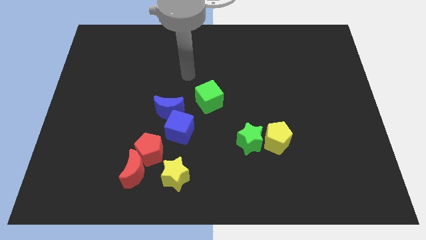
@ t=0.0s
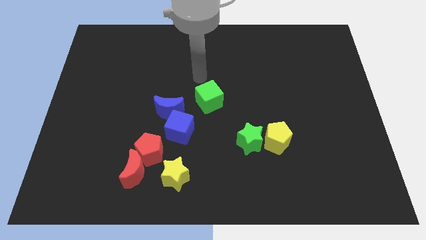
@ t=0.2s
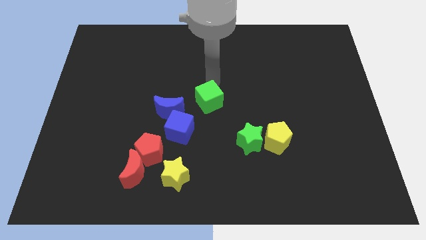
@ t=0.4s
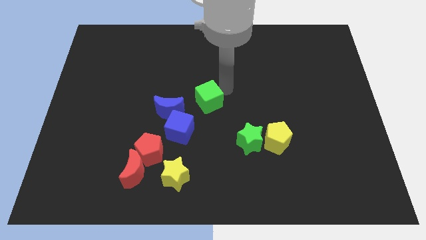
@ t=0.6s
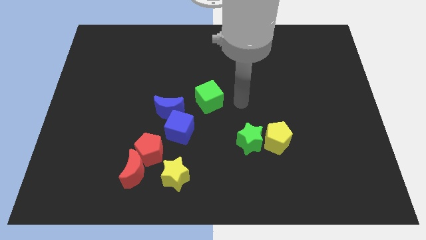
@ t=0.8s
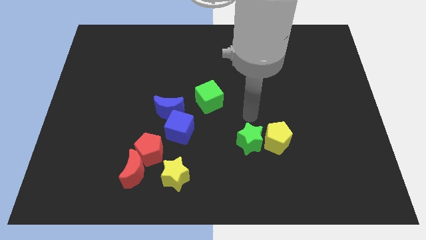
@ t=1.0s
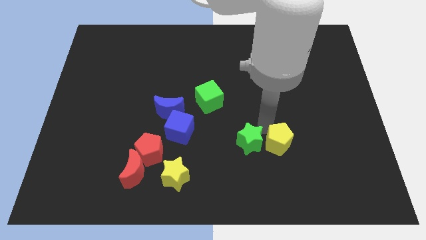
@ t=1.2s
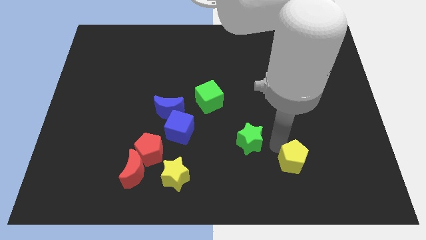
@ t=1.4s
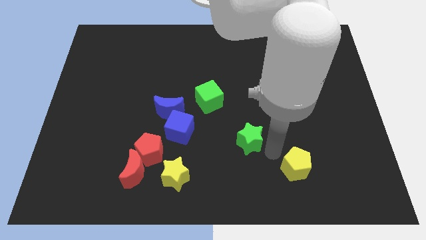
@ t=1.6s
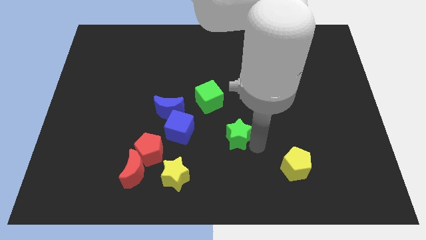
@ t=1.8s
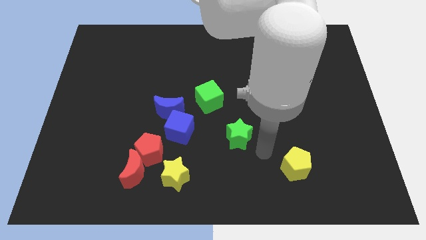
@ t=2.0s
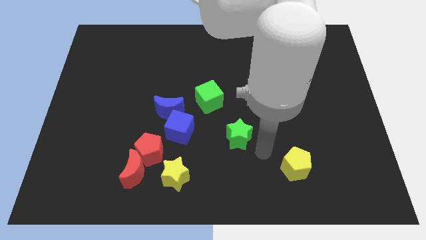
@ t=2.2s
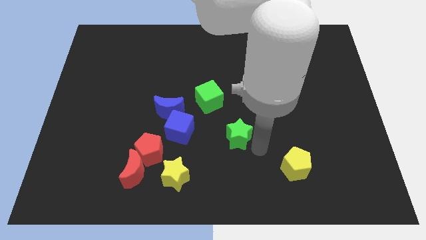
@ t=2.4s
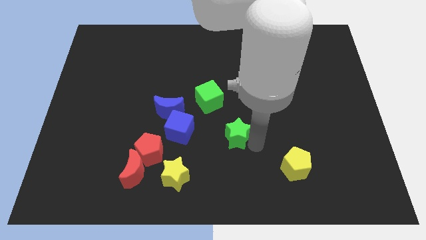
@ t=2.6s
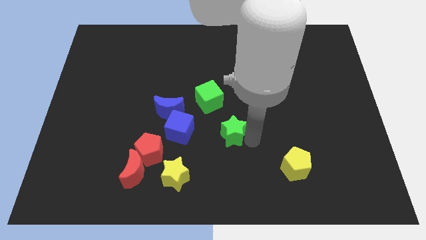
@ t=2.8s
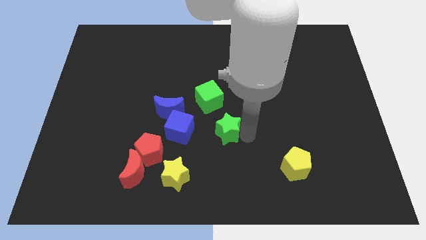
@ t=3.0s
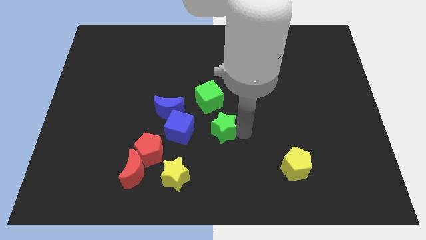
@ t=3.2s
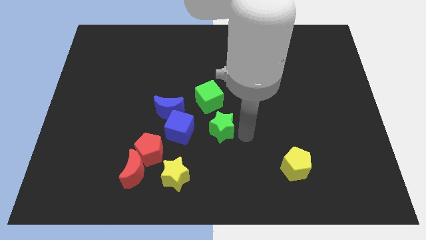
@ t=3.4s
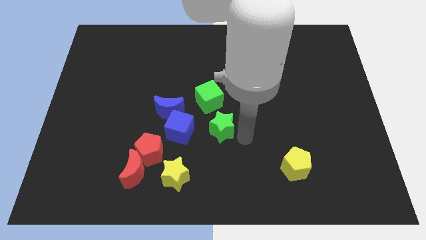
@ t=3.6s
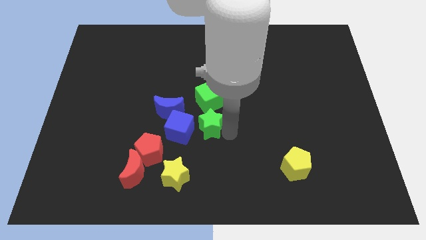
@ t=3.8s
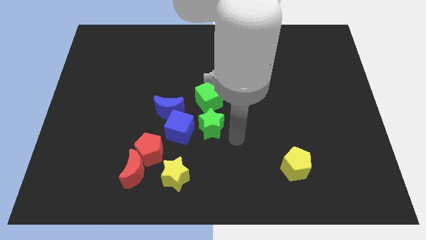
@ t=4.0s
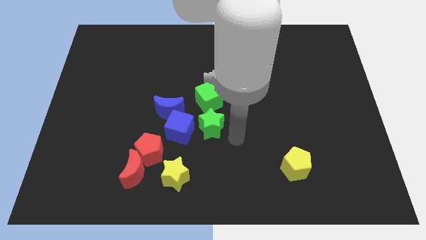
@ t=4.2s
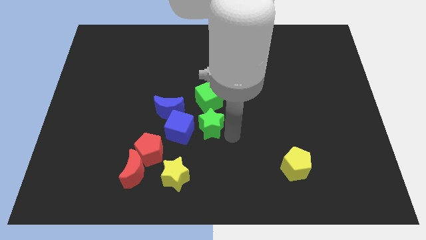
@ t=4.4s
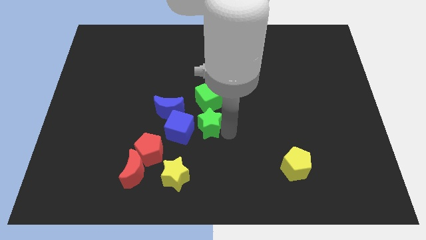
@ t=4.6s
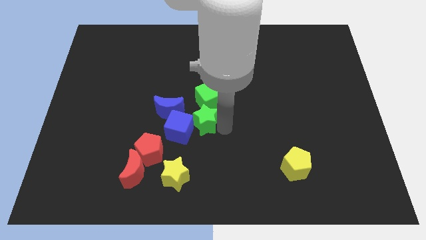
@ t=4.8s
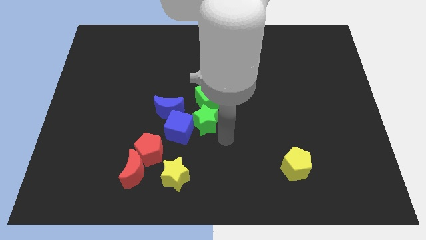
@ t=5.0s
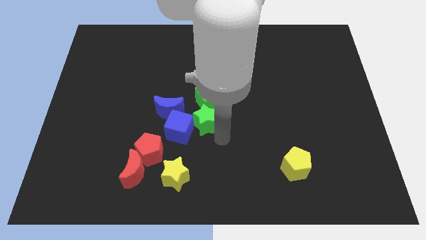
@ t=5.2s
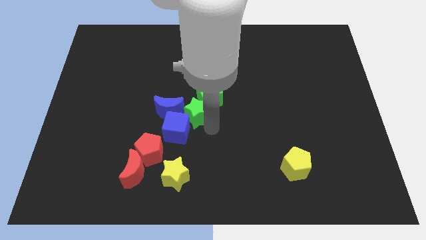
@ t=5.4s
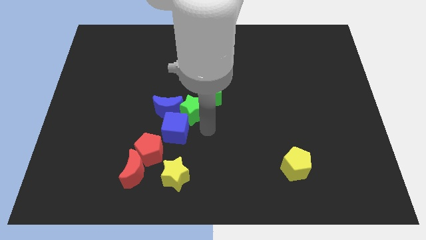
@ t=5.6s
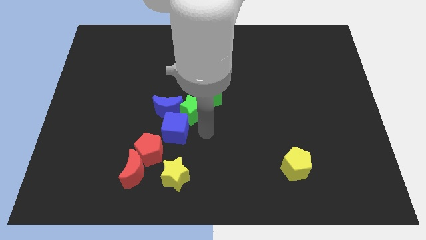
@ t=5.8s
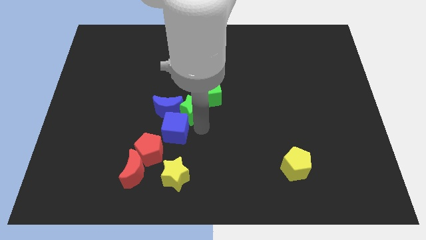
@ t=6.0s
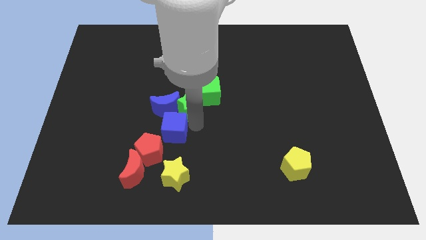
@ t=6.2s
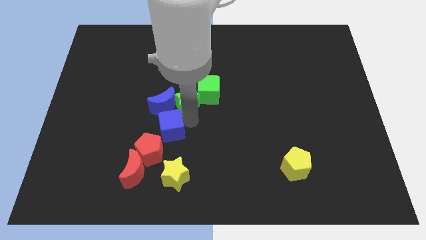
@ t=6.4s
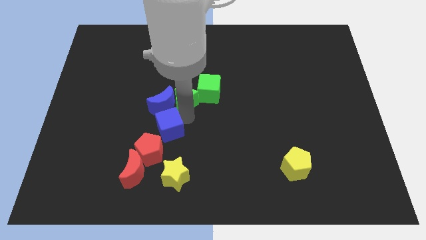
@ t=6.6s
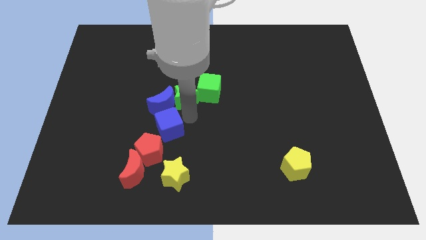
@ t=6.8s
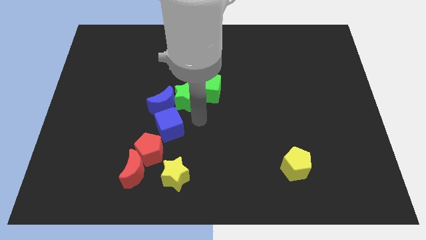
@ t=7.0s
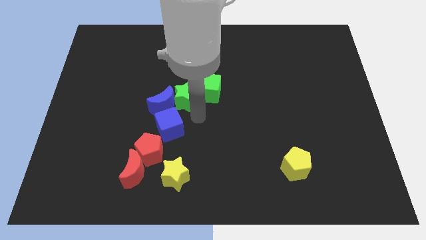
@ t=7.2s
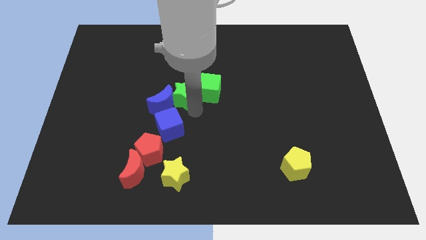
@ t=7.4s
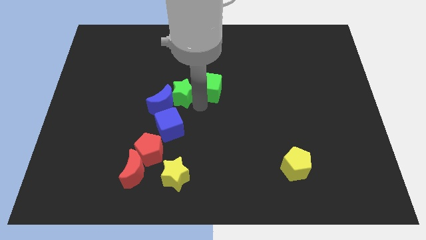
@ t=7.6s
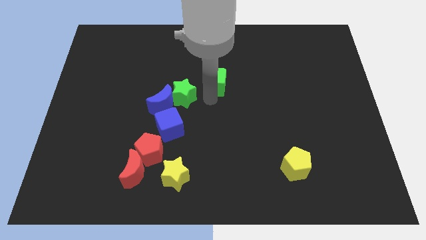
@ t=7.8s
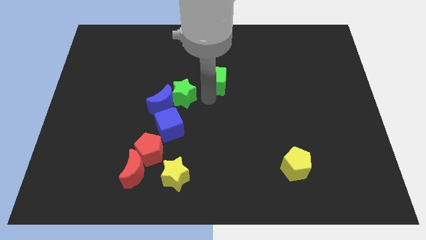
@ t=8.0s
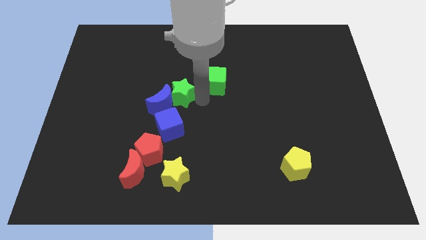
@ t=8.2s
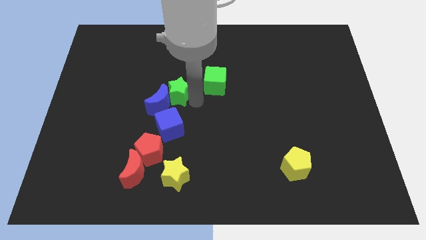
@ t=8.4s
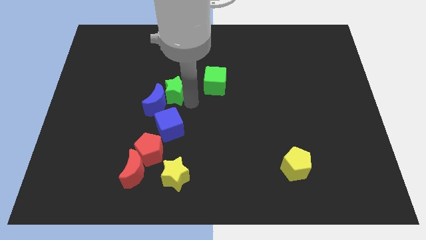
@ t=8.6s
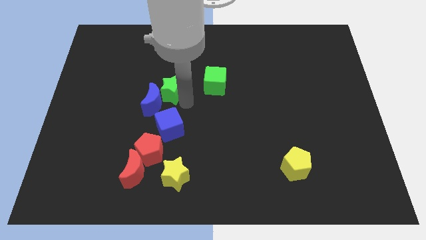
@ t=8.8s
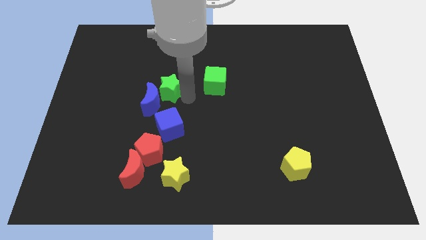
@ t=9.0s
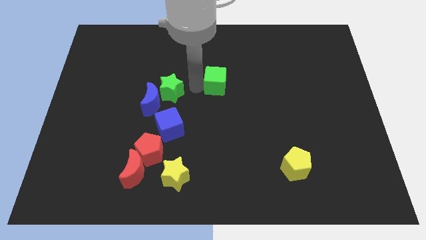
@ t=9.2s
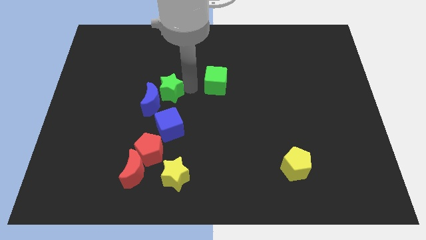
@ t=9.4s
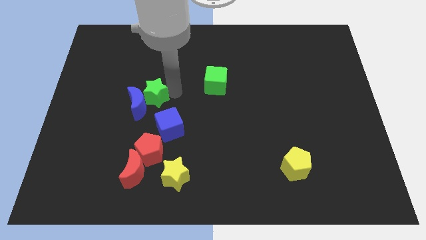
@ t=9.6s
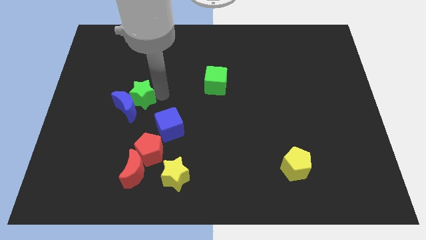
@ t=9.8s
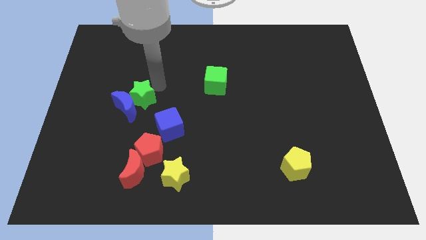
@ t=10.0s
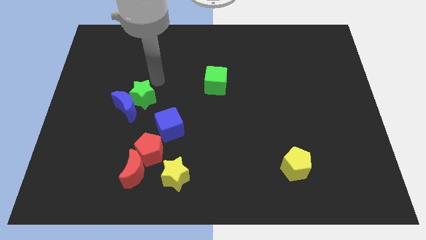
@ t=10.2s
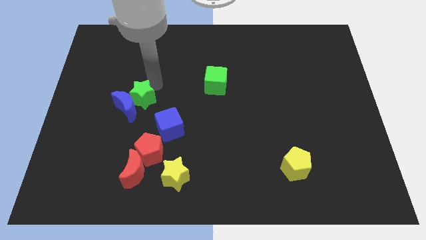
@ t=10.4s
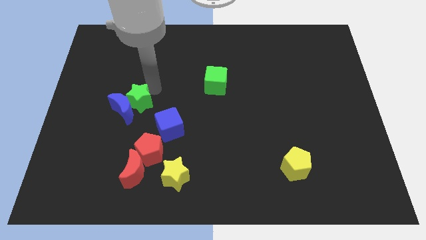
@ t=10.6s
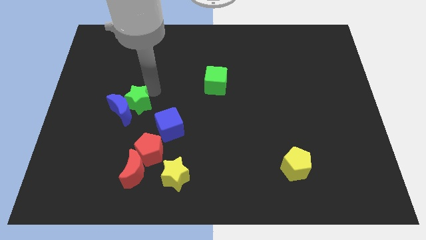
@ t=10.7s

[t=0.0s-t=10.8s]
move the green star to the left

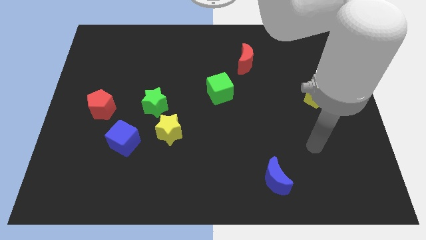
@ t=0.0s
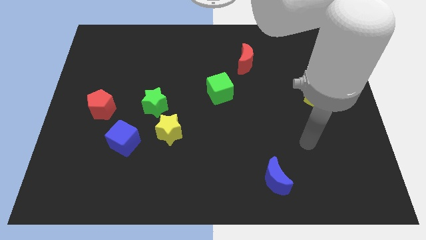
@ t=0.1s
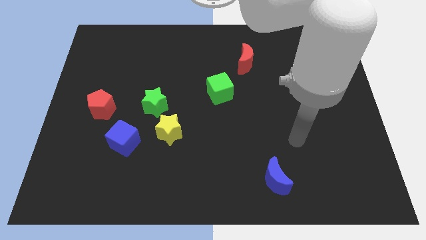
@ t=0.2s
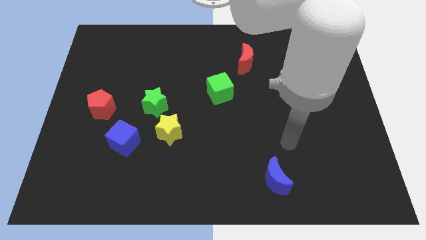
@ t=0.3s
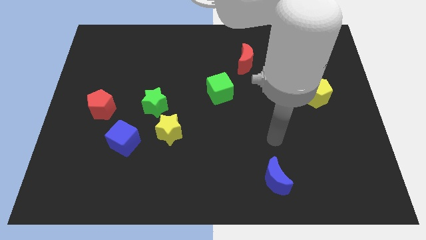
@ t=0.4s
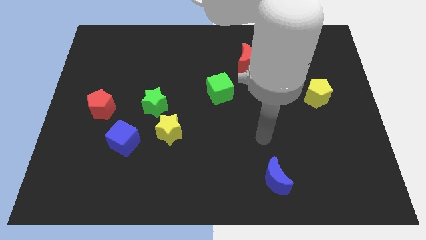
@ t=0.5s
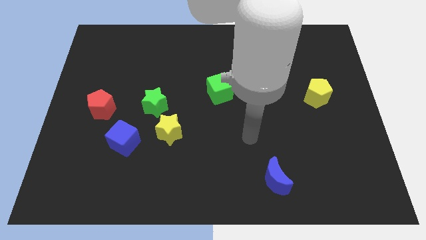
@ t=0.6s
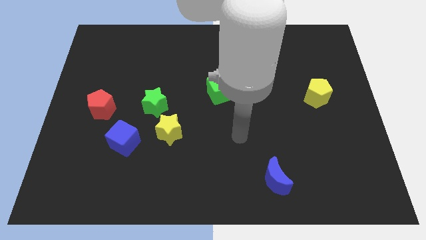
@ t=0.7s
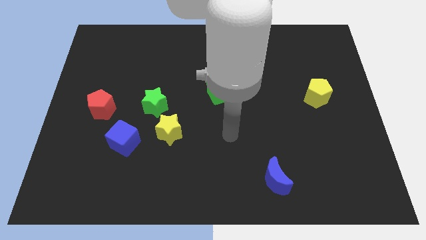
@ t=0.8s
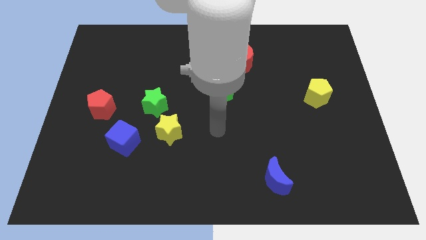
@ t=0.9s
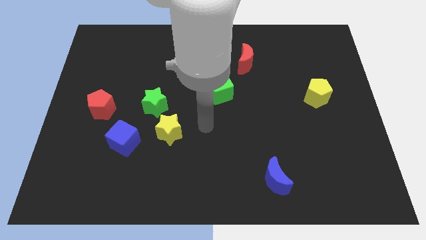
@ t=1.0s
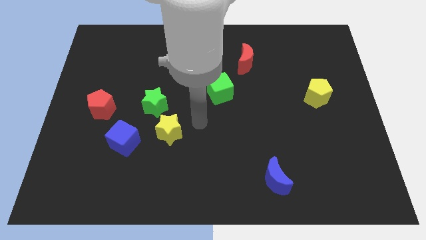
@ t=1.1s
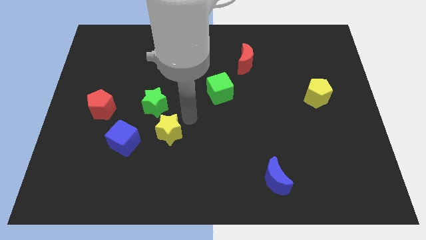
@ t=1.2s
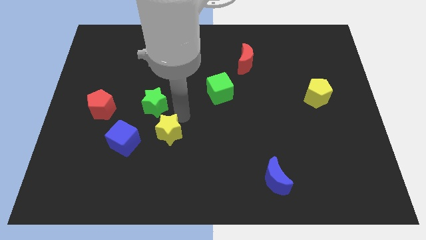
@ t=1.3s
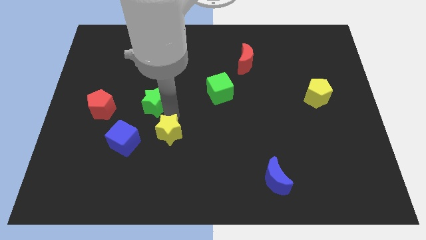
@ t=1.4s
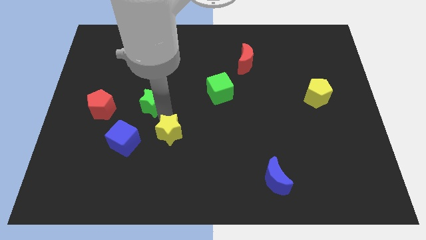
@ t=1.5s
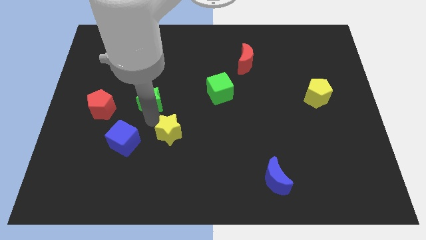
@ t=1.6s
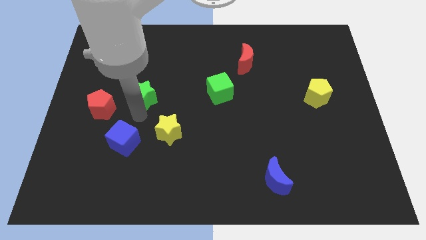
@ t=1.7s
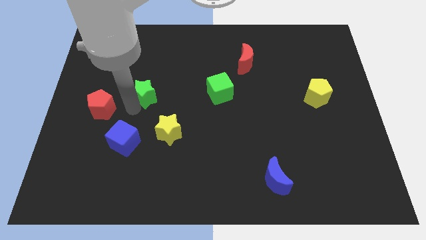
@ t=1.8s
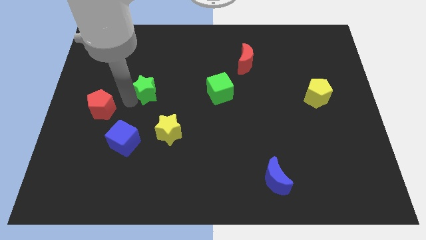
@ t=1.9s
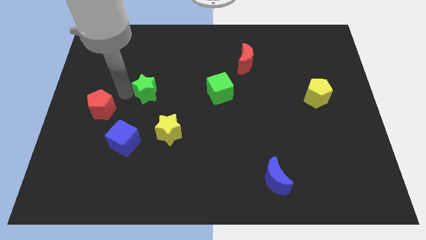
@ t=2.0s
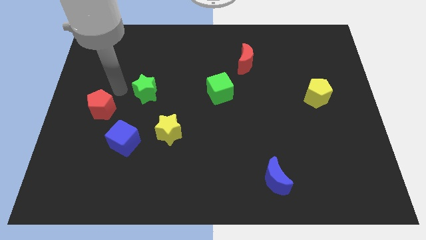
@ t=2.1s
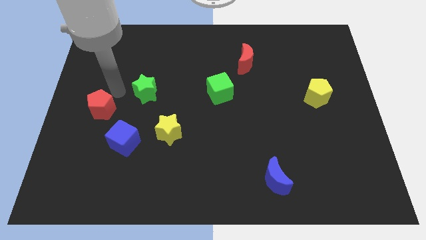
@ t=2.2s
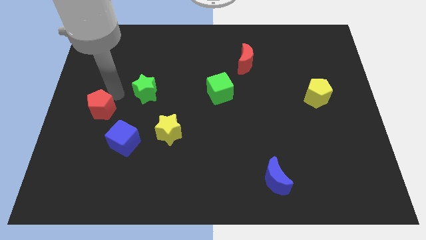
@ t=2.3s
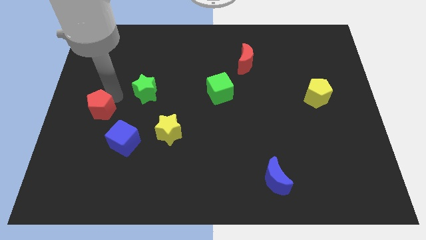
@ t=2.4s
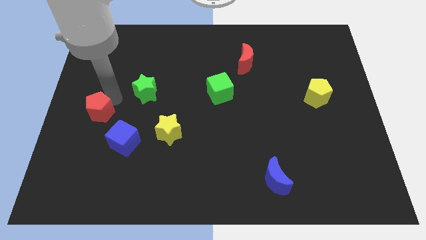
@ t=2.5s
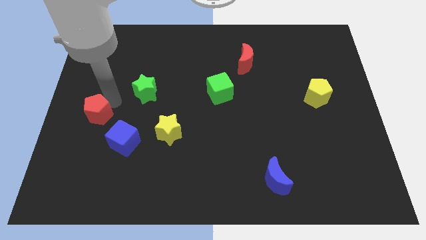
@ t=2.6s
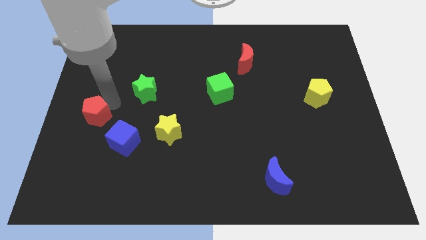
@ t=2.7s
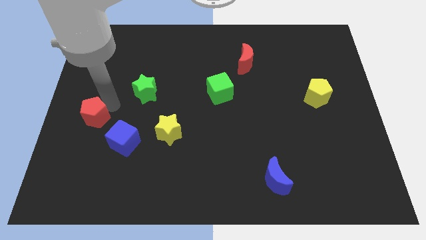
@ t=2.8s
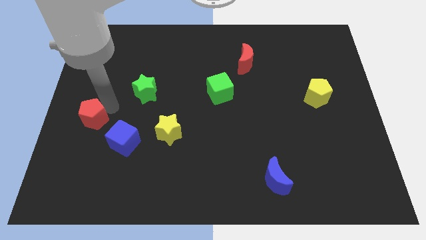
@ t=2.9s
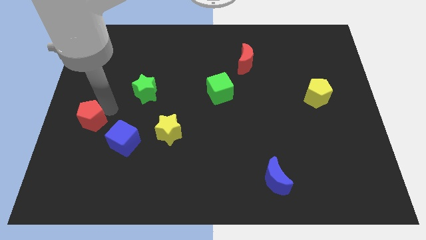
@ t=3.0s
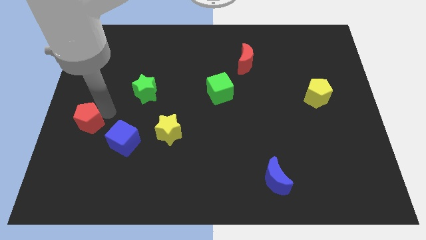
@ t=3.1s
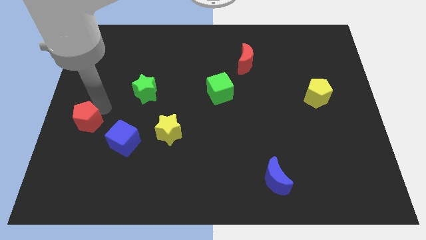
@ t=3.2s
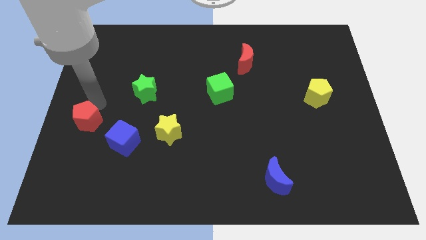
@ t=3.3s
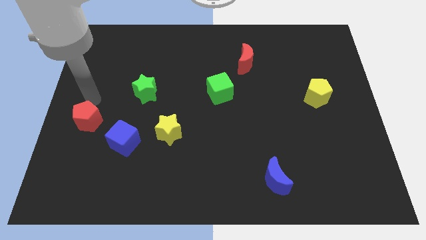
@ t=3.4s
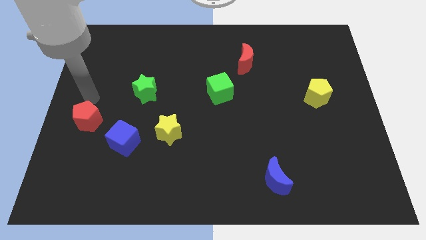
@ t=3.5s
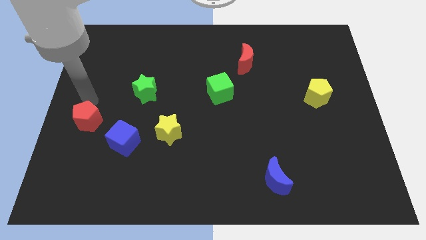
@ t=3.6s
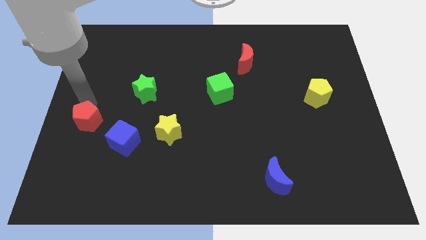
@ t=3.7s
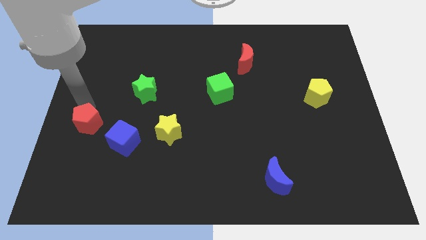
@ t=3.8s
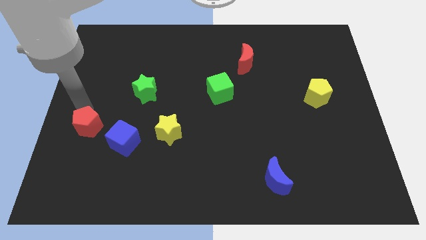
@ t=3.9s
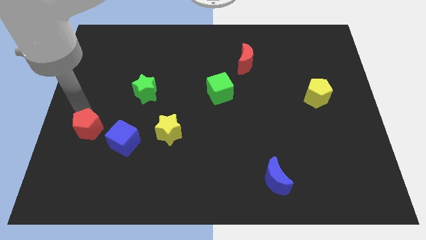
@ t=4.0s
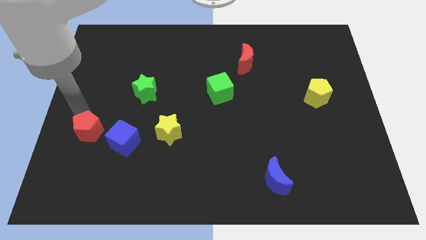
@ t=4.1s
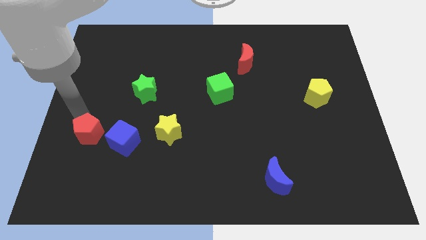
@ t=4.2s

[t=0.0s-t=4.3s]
slide the red pentagon a little downwards
